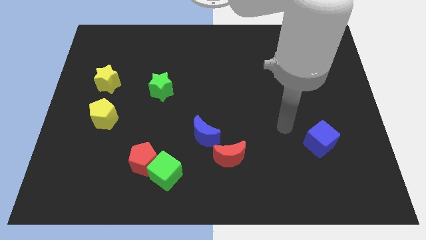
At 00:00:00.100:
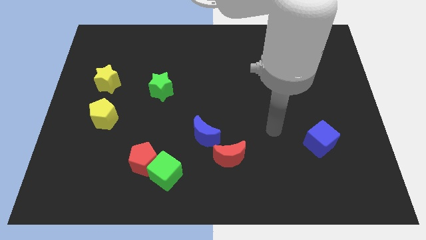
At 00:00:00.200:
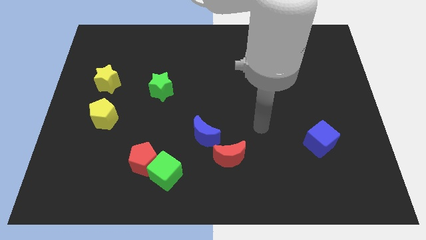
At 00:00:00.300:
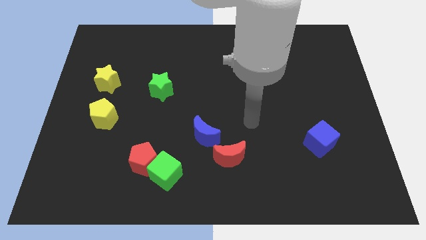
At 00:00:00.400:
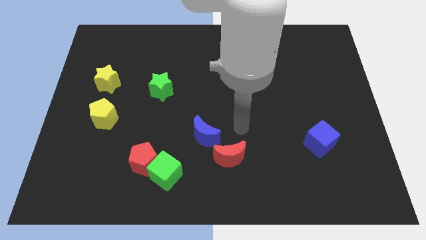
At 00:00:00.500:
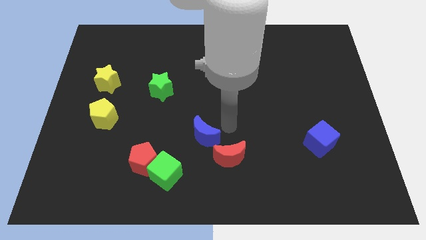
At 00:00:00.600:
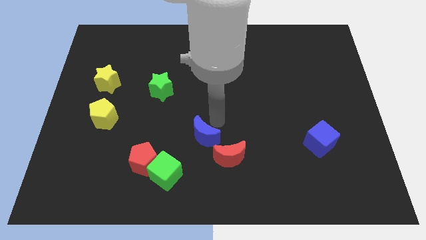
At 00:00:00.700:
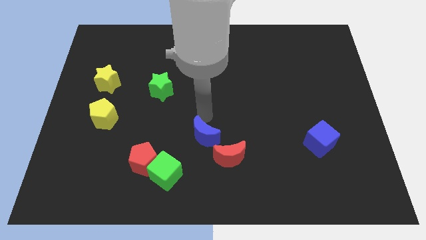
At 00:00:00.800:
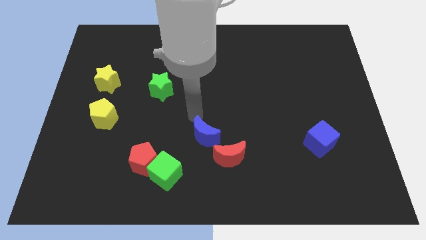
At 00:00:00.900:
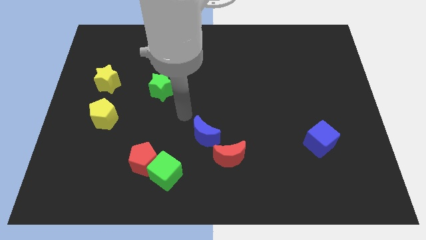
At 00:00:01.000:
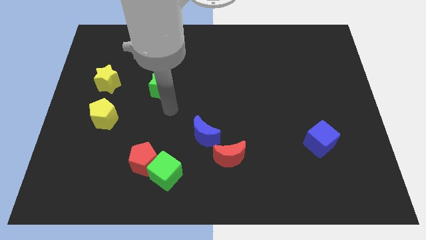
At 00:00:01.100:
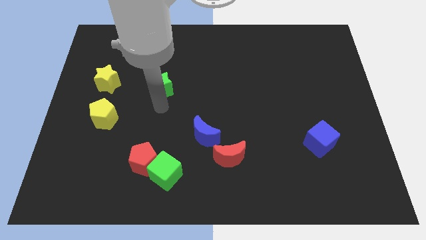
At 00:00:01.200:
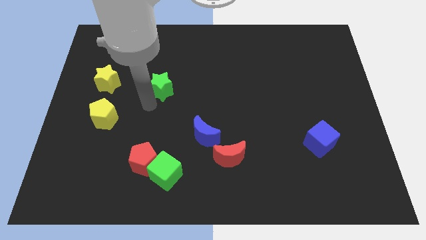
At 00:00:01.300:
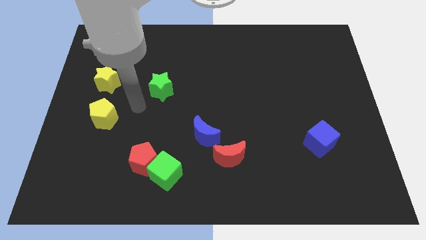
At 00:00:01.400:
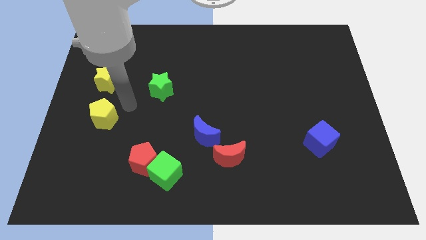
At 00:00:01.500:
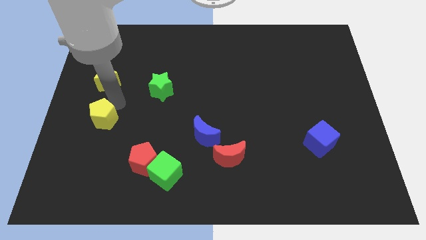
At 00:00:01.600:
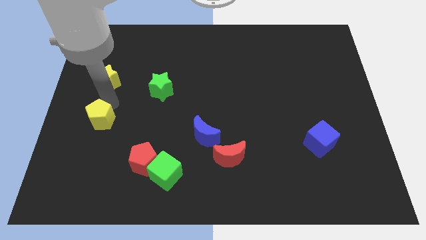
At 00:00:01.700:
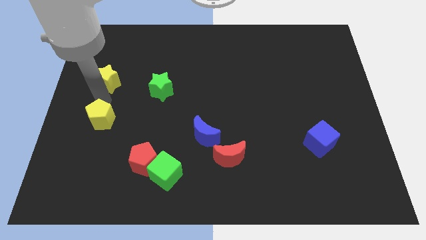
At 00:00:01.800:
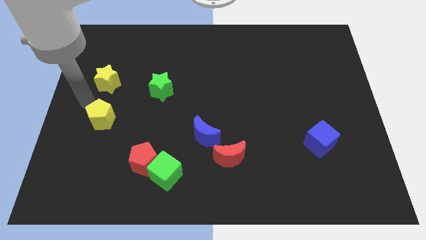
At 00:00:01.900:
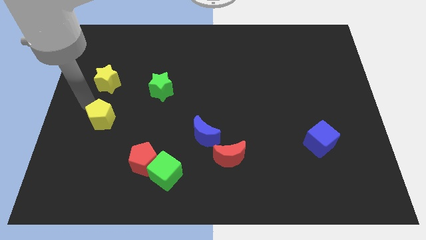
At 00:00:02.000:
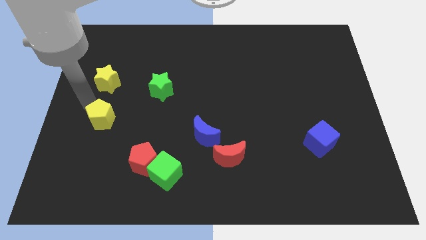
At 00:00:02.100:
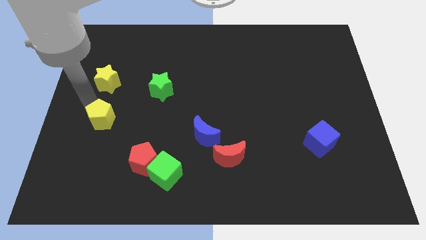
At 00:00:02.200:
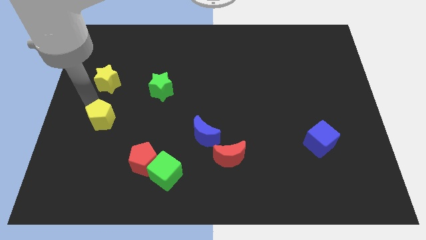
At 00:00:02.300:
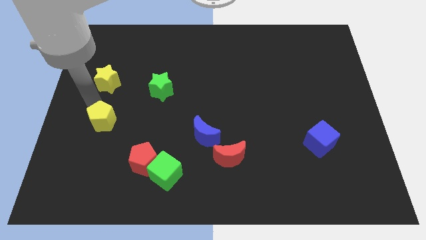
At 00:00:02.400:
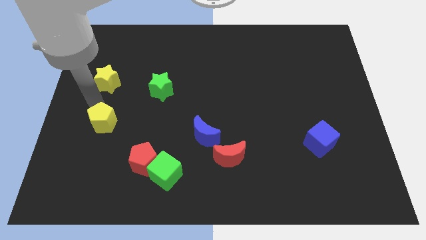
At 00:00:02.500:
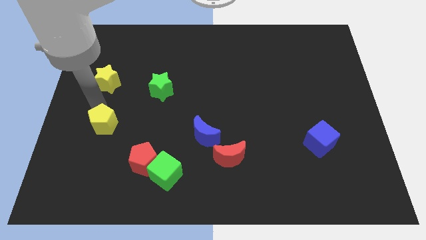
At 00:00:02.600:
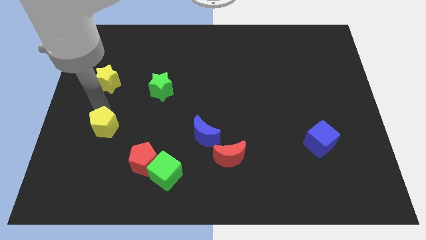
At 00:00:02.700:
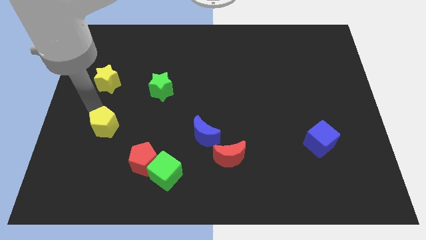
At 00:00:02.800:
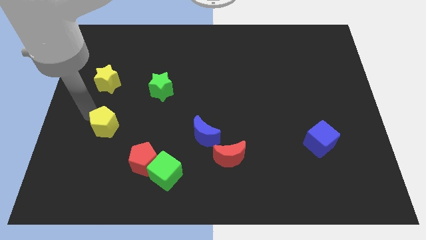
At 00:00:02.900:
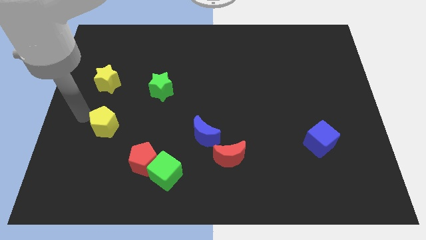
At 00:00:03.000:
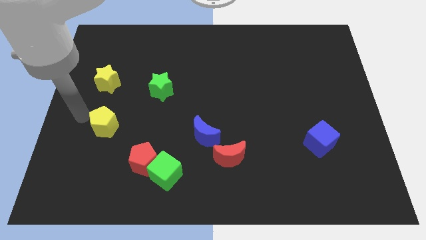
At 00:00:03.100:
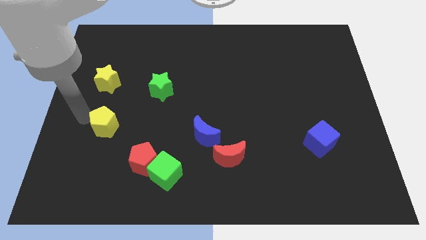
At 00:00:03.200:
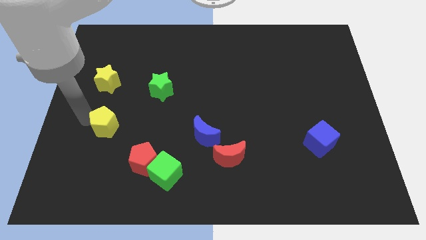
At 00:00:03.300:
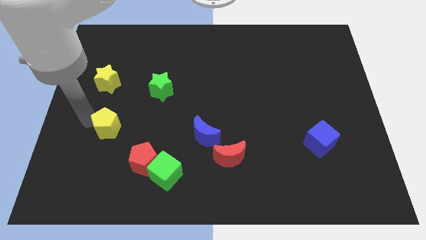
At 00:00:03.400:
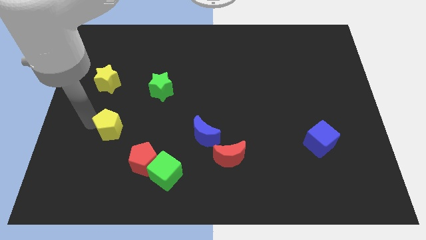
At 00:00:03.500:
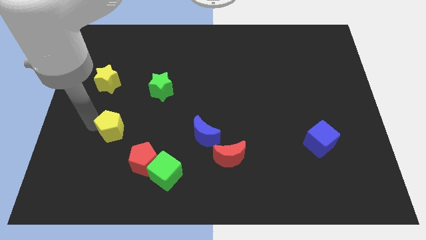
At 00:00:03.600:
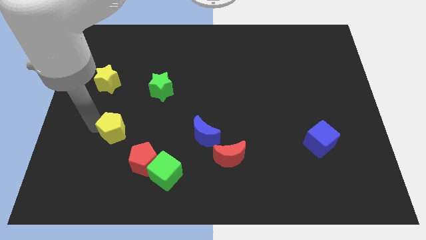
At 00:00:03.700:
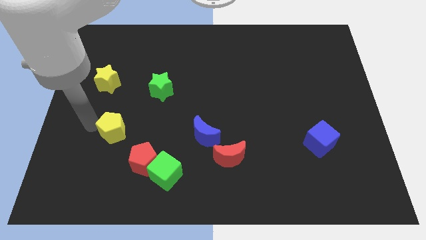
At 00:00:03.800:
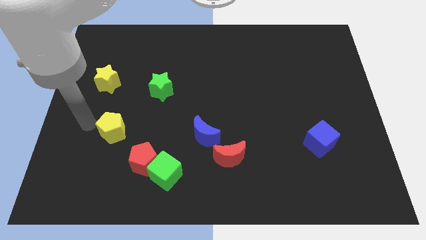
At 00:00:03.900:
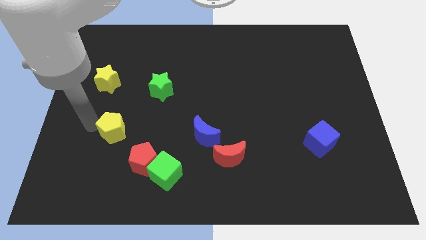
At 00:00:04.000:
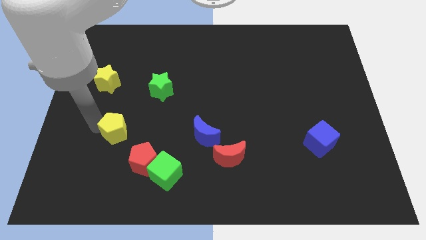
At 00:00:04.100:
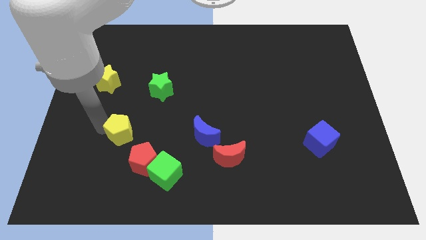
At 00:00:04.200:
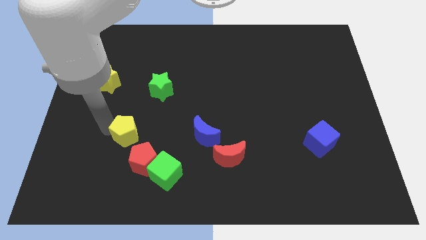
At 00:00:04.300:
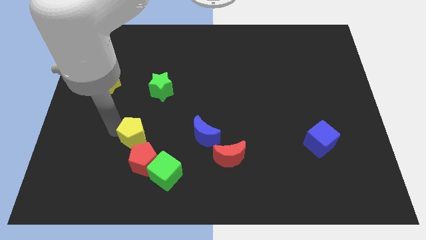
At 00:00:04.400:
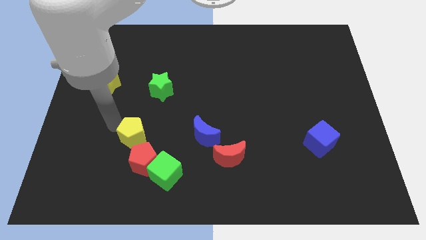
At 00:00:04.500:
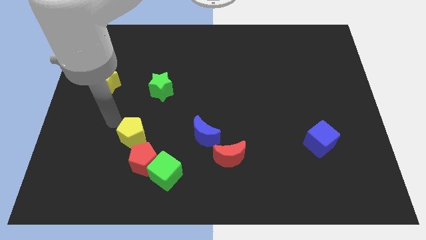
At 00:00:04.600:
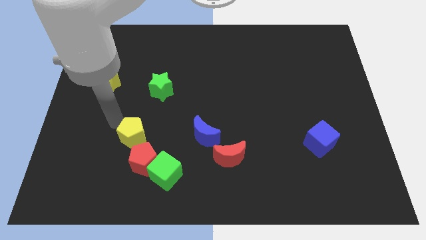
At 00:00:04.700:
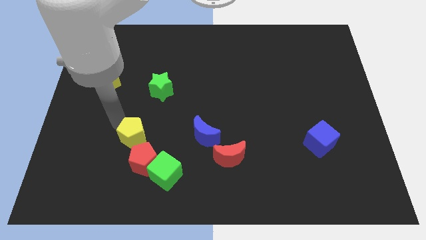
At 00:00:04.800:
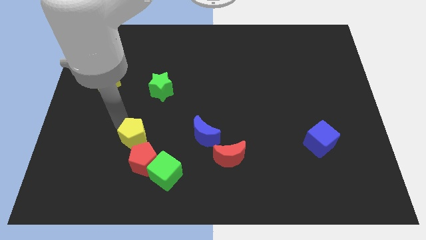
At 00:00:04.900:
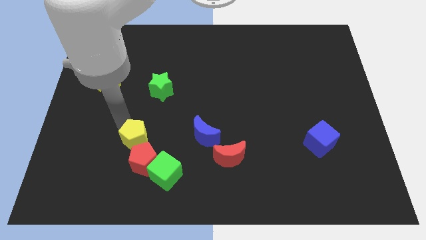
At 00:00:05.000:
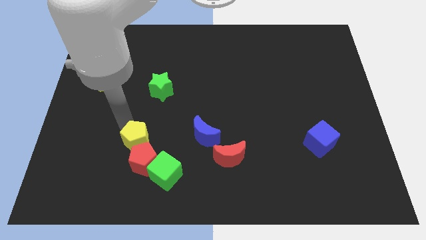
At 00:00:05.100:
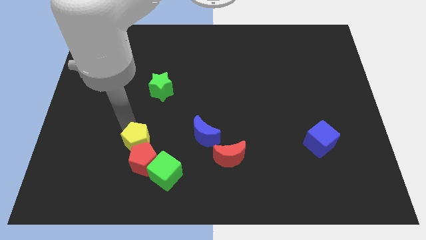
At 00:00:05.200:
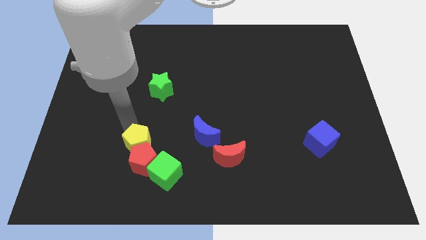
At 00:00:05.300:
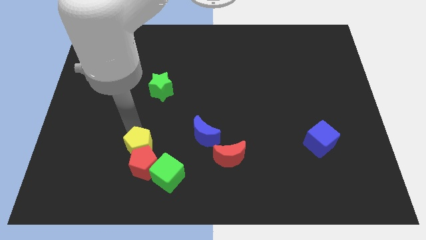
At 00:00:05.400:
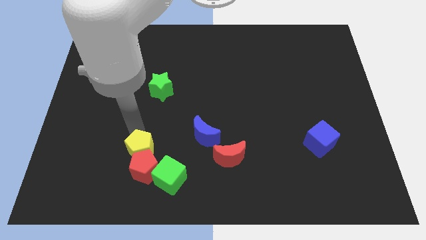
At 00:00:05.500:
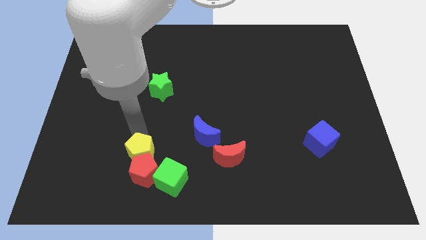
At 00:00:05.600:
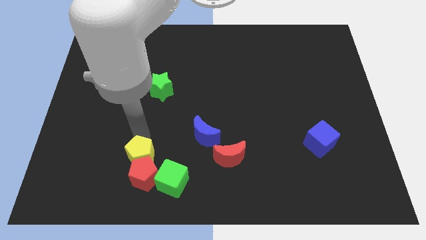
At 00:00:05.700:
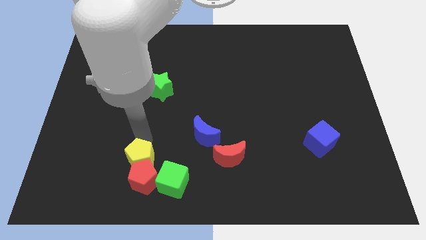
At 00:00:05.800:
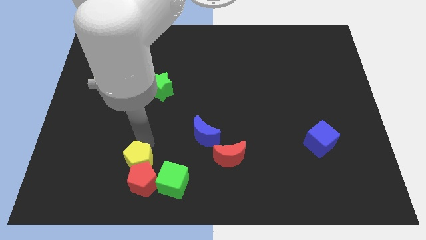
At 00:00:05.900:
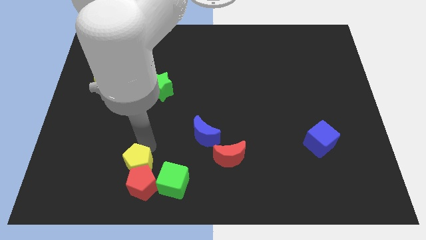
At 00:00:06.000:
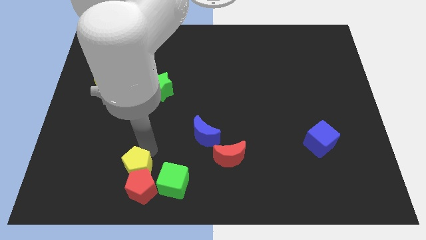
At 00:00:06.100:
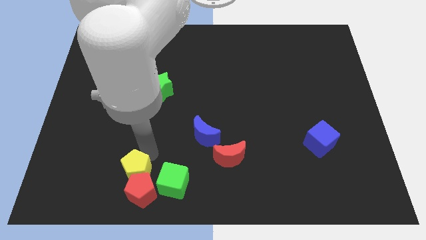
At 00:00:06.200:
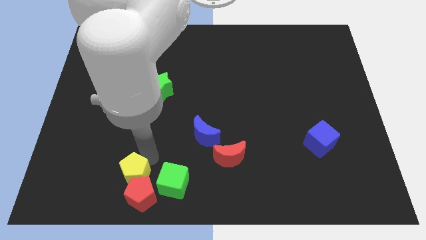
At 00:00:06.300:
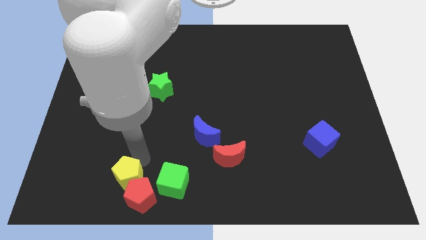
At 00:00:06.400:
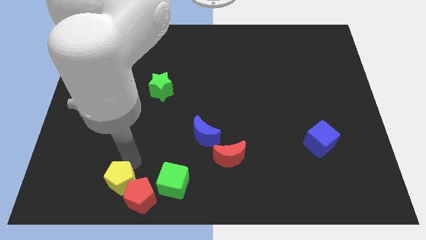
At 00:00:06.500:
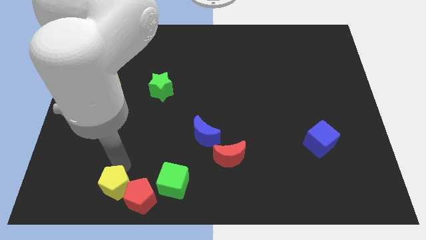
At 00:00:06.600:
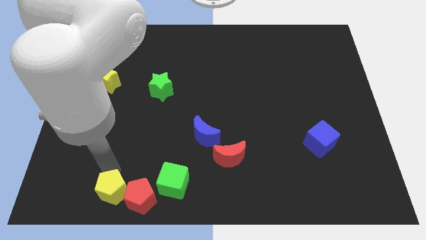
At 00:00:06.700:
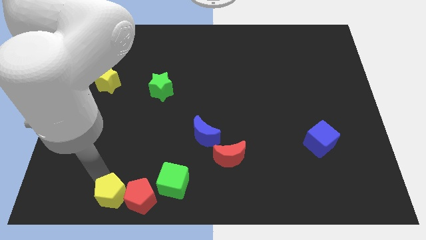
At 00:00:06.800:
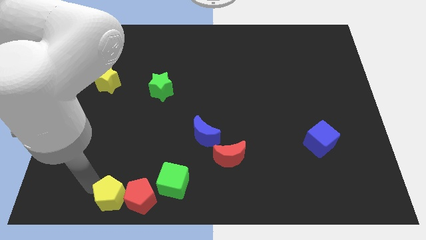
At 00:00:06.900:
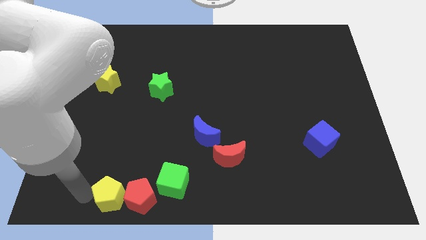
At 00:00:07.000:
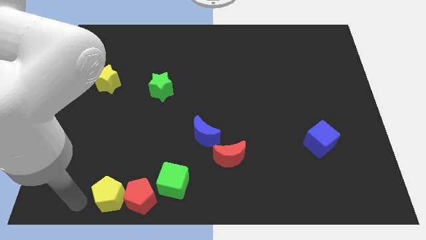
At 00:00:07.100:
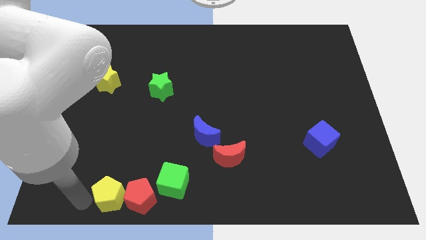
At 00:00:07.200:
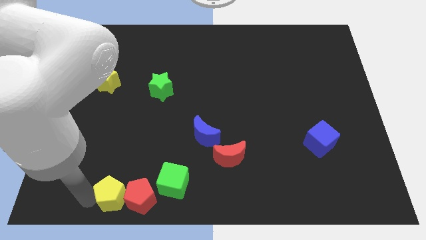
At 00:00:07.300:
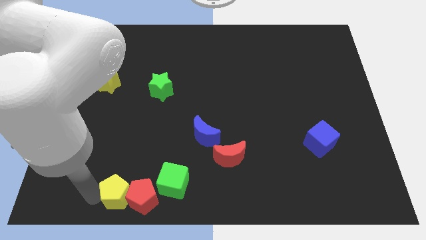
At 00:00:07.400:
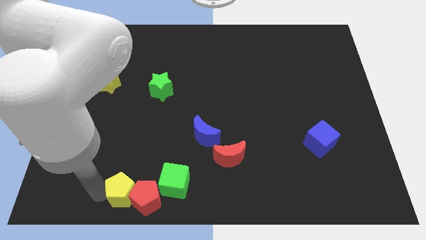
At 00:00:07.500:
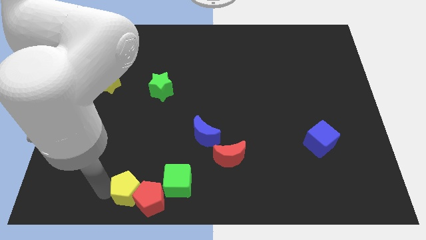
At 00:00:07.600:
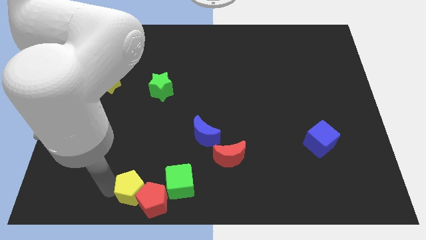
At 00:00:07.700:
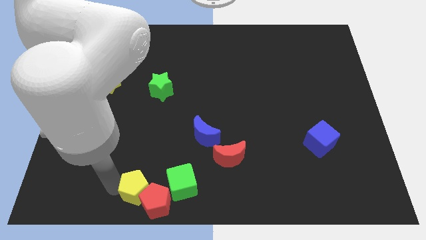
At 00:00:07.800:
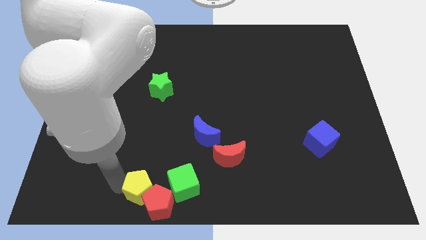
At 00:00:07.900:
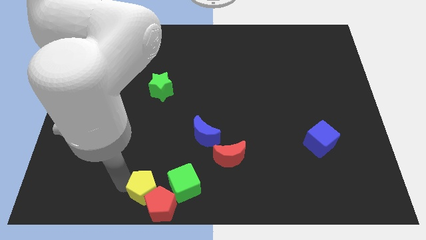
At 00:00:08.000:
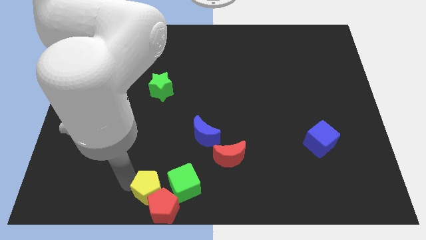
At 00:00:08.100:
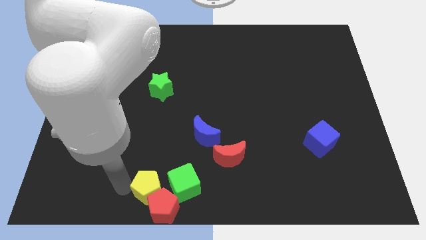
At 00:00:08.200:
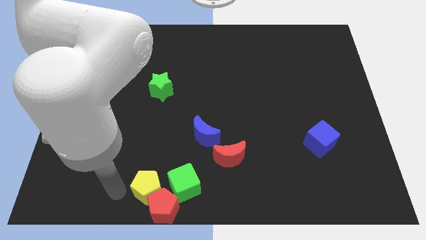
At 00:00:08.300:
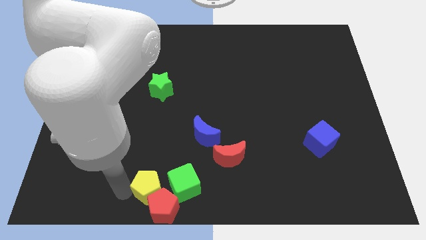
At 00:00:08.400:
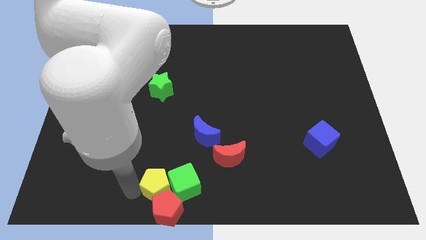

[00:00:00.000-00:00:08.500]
put the yellow pentagon towards the green cube
